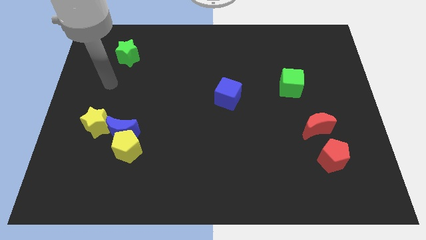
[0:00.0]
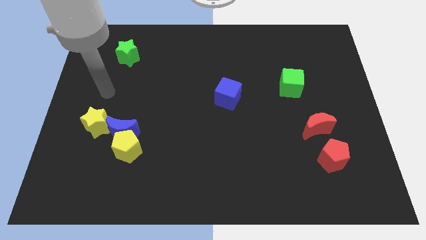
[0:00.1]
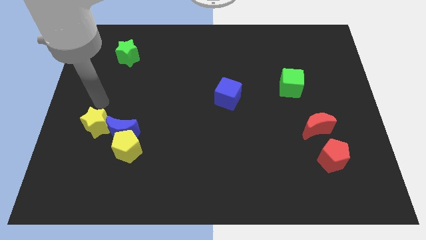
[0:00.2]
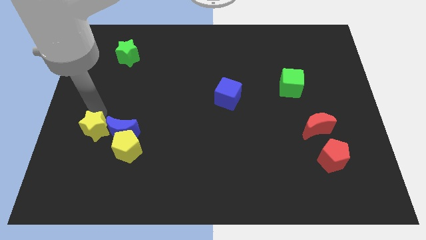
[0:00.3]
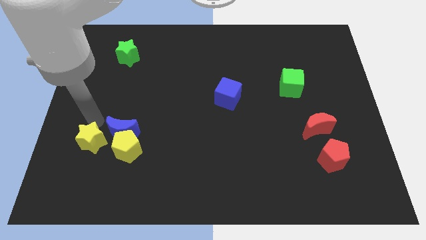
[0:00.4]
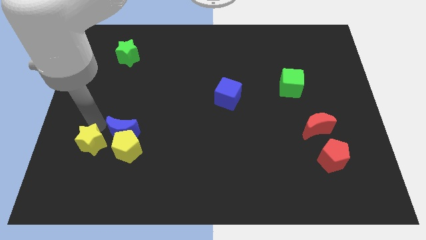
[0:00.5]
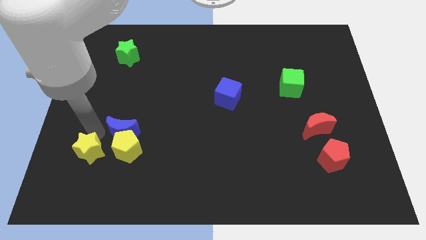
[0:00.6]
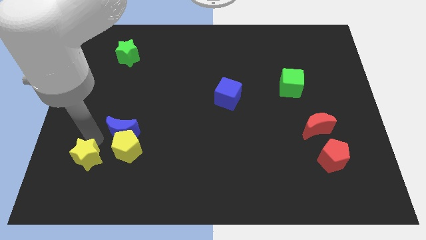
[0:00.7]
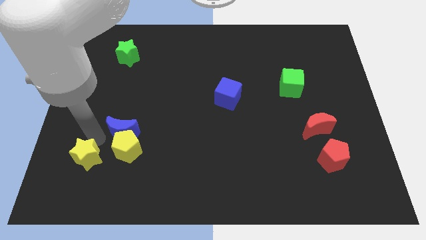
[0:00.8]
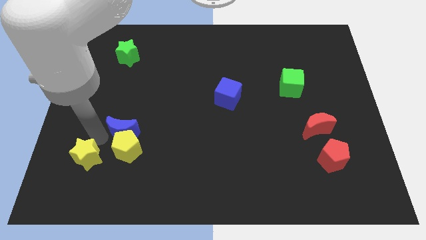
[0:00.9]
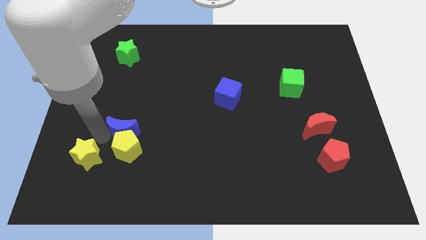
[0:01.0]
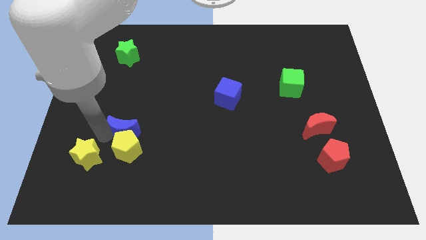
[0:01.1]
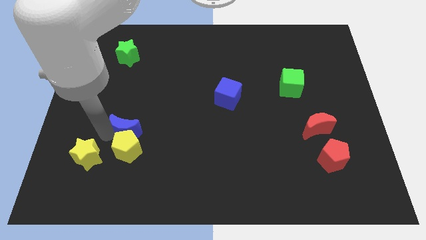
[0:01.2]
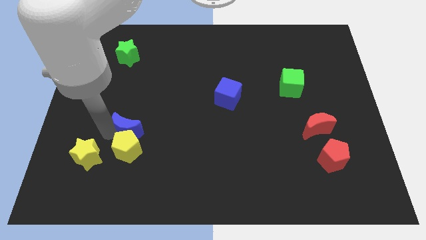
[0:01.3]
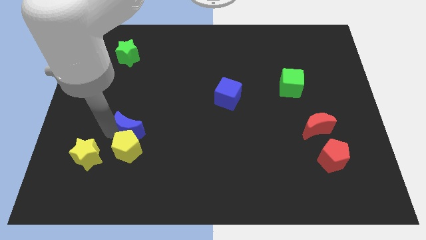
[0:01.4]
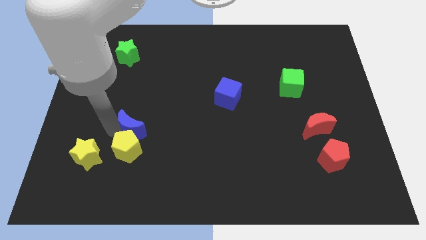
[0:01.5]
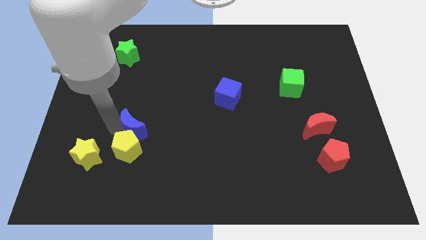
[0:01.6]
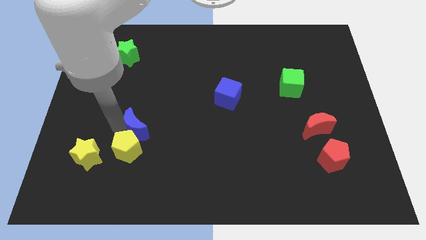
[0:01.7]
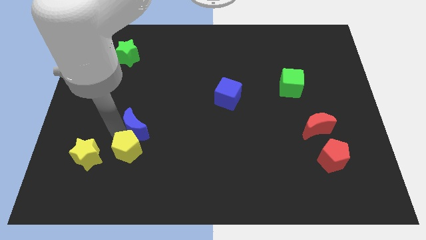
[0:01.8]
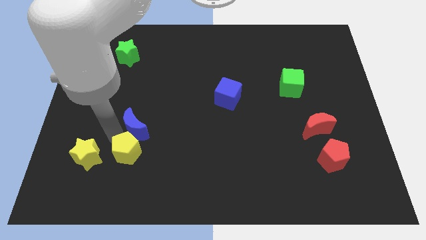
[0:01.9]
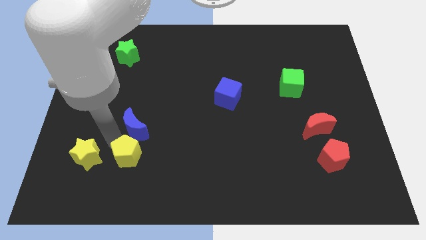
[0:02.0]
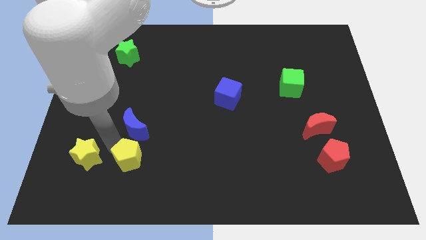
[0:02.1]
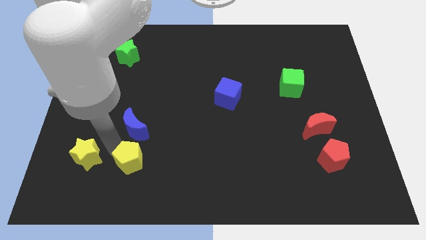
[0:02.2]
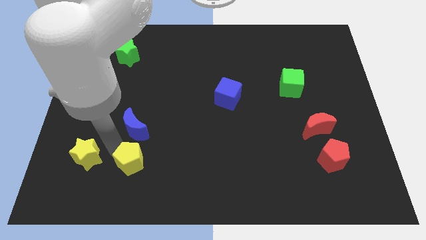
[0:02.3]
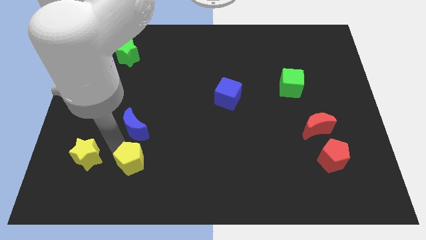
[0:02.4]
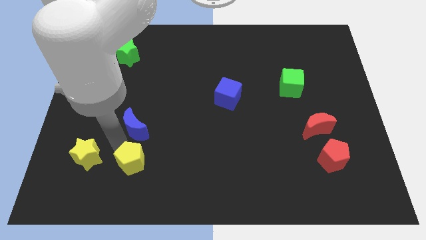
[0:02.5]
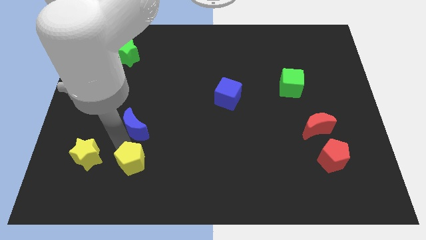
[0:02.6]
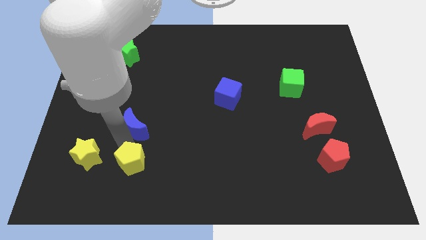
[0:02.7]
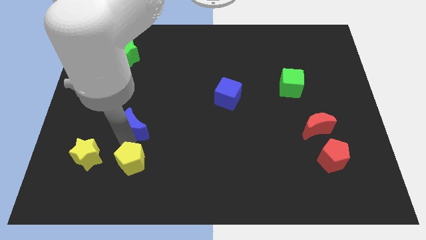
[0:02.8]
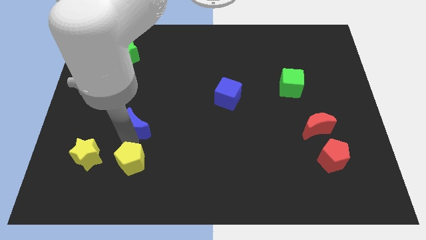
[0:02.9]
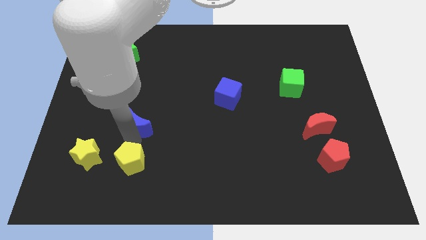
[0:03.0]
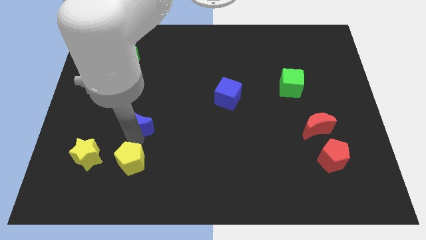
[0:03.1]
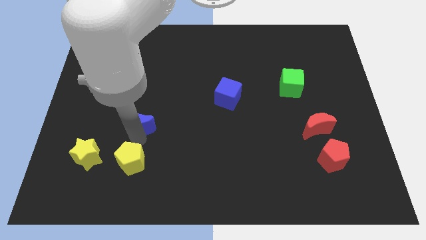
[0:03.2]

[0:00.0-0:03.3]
separate the blue moon from the yellow pentagon and yellow star

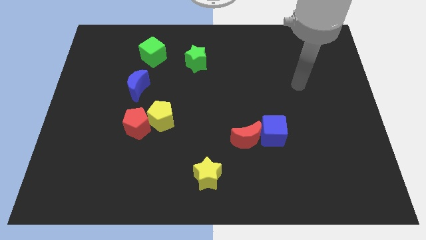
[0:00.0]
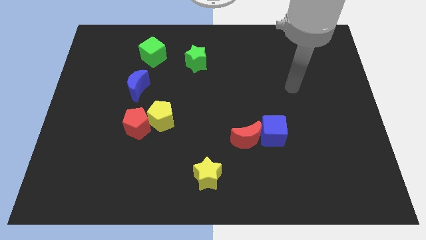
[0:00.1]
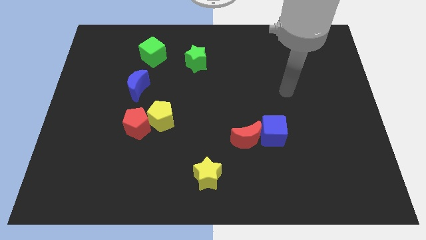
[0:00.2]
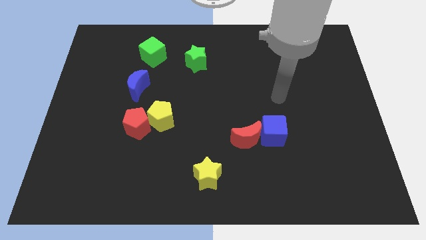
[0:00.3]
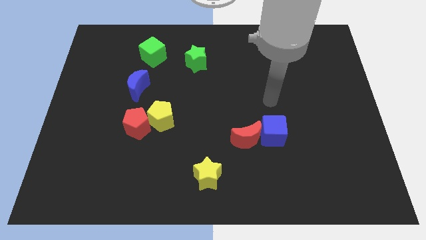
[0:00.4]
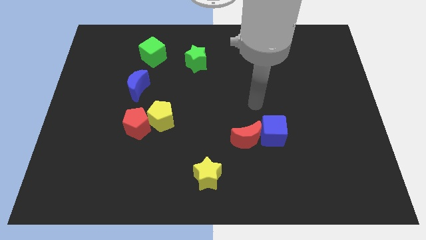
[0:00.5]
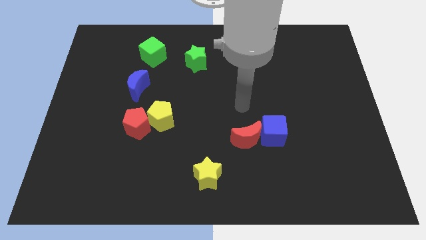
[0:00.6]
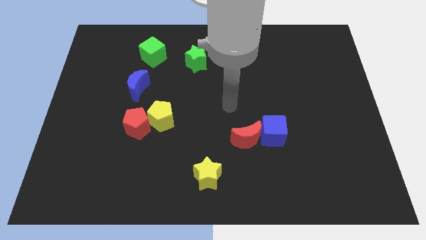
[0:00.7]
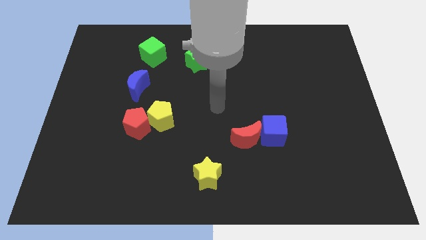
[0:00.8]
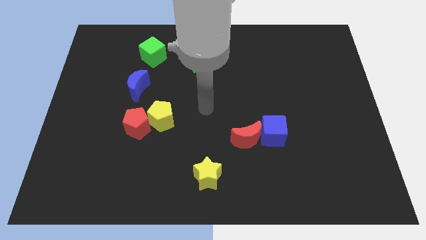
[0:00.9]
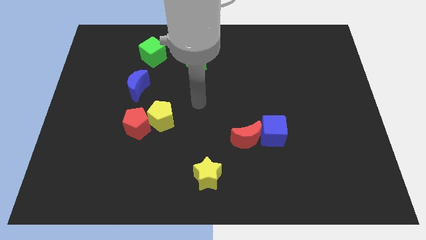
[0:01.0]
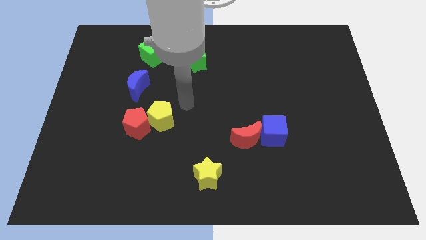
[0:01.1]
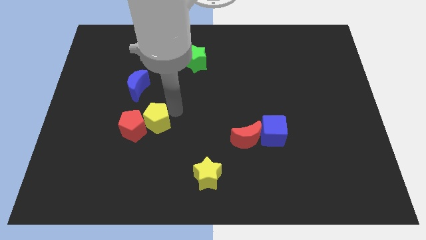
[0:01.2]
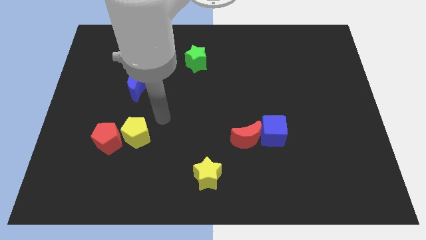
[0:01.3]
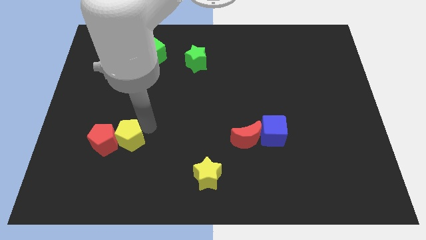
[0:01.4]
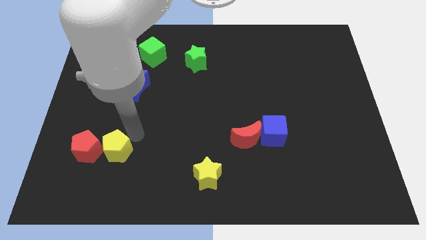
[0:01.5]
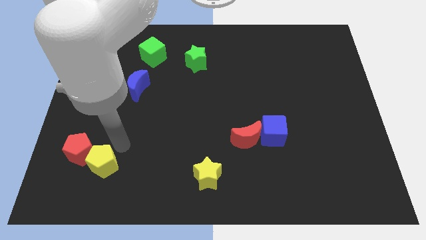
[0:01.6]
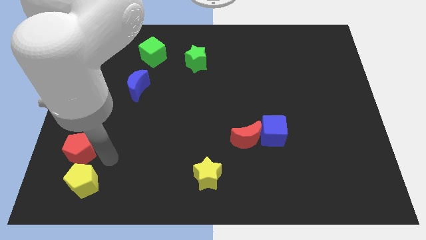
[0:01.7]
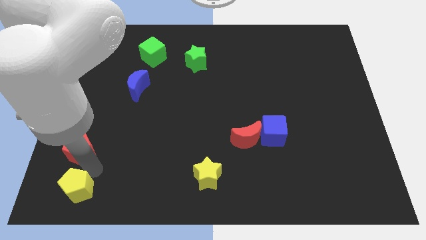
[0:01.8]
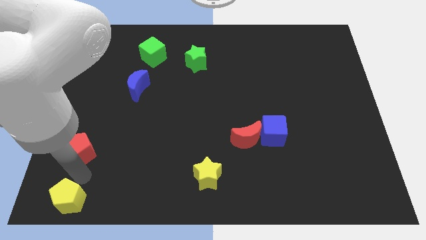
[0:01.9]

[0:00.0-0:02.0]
pull the red pentagon apart from the yellow pentagon

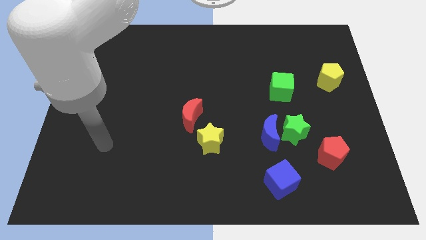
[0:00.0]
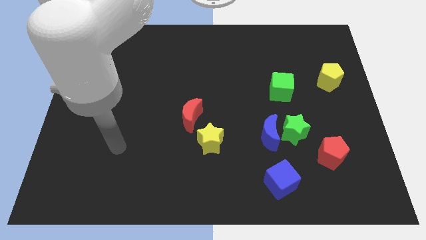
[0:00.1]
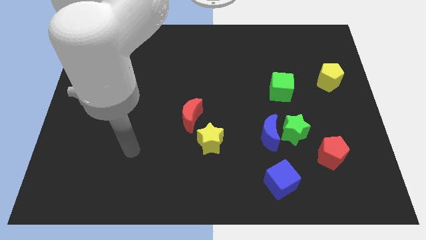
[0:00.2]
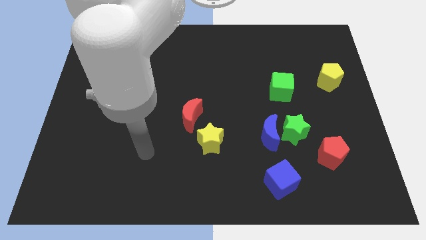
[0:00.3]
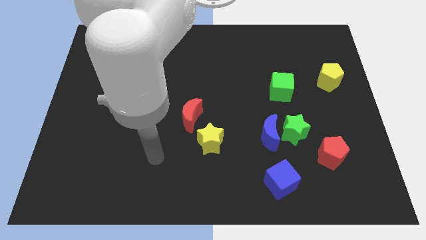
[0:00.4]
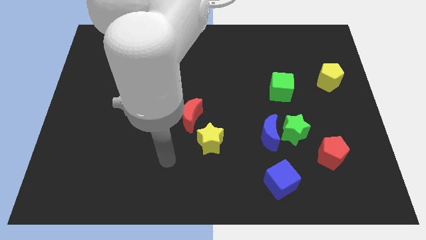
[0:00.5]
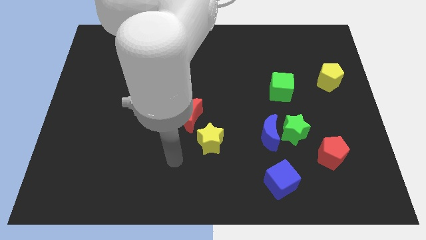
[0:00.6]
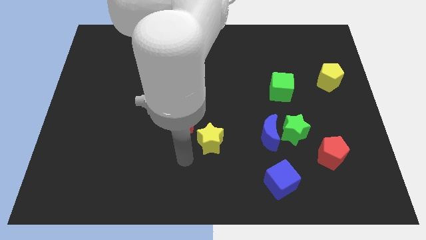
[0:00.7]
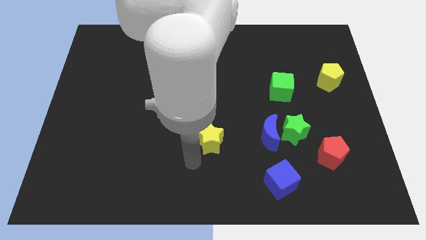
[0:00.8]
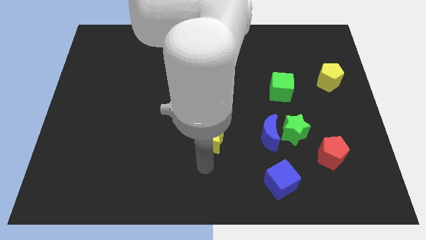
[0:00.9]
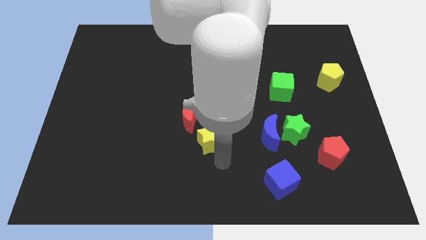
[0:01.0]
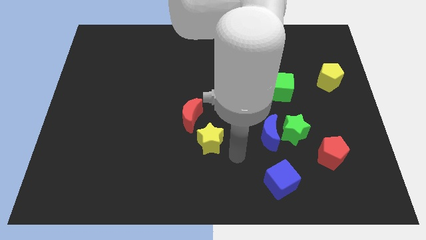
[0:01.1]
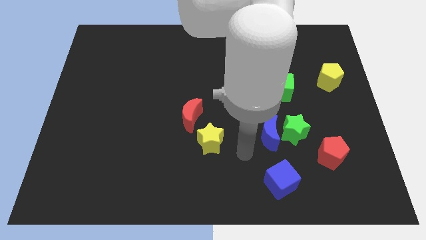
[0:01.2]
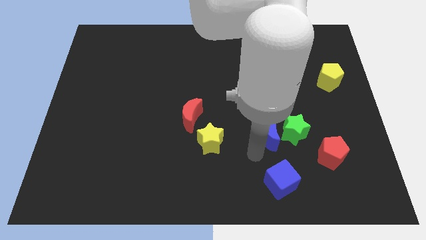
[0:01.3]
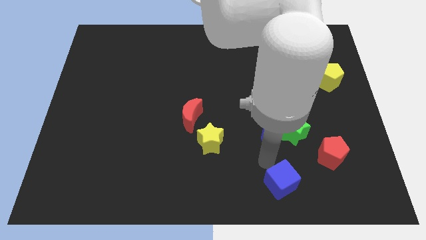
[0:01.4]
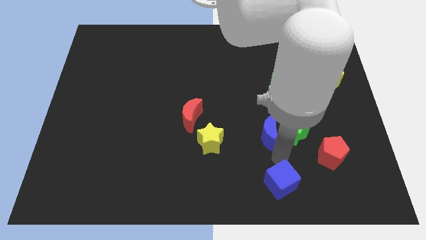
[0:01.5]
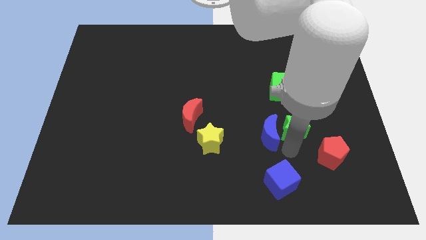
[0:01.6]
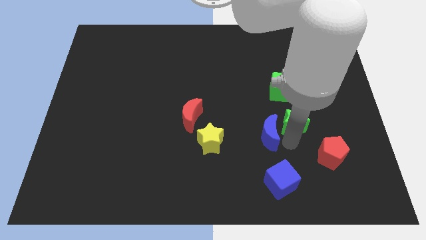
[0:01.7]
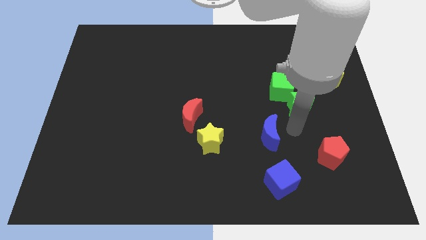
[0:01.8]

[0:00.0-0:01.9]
separate the blue moon from the green star

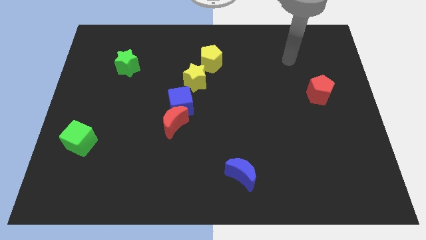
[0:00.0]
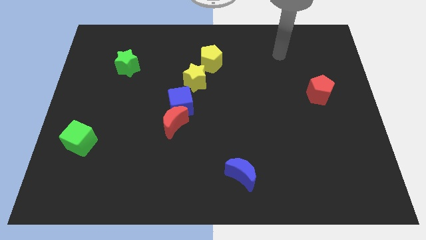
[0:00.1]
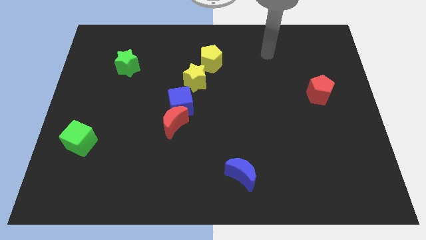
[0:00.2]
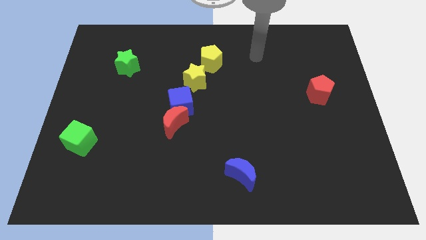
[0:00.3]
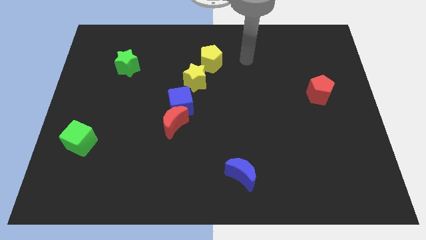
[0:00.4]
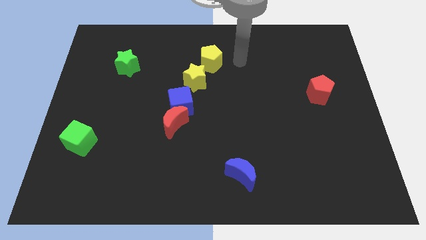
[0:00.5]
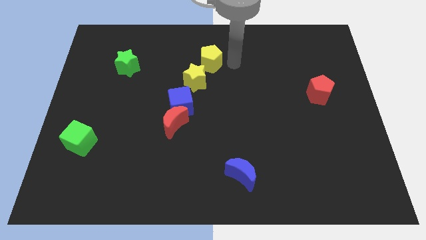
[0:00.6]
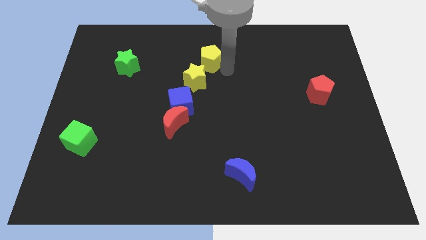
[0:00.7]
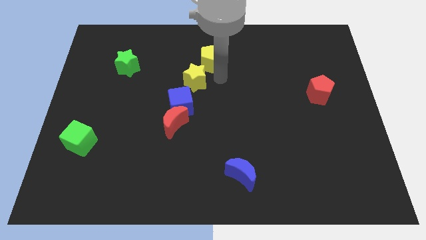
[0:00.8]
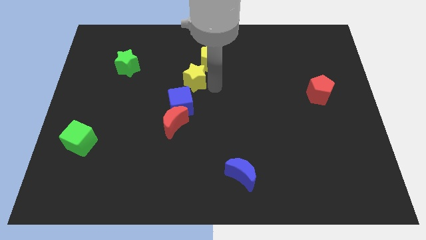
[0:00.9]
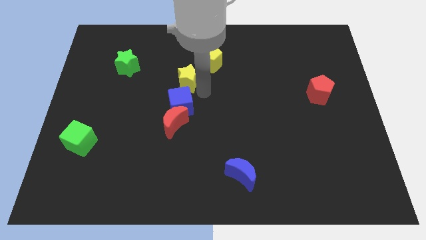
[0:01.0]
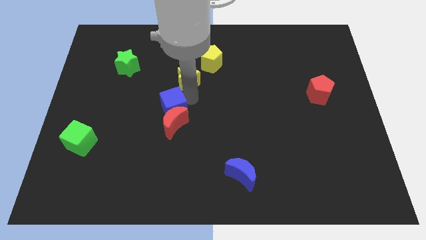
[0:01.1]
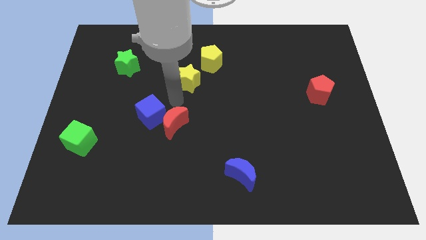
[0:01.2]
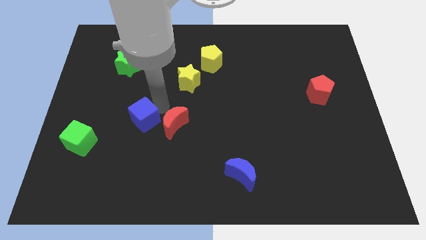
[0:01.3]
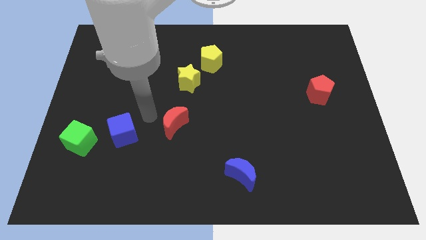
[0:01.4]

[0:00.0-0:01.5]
separate the red moon from the blue cube

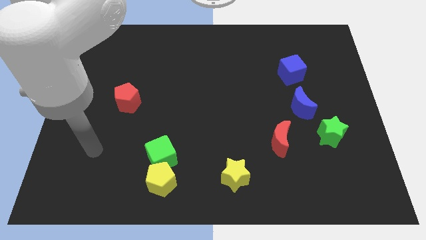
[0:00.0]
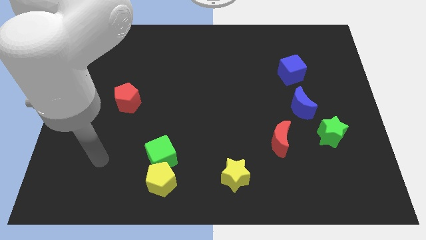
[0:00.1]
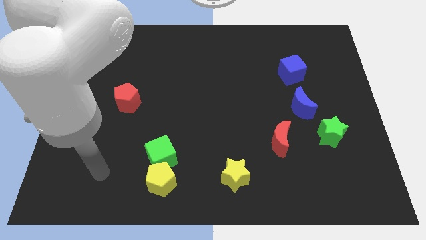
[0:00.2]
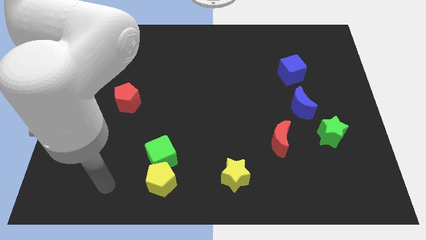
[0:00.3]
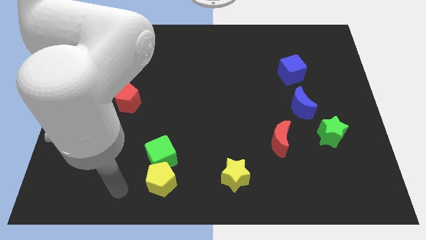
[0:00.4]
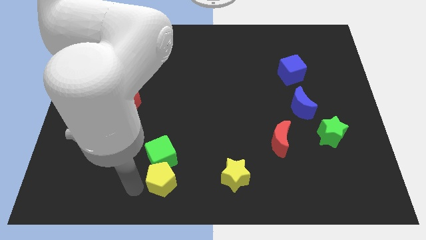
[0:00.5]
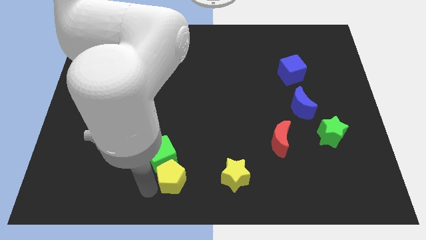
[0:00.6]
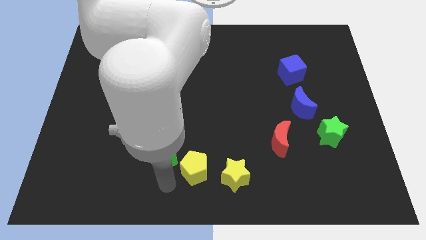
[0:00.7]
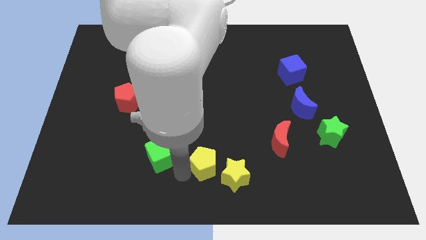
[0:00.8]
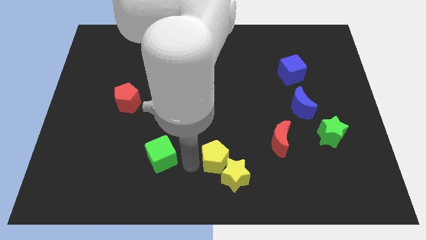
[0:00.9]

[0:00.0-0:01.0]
separate the green cube from the yellow pentagon
